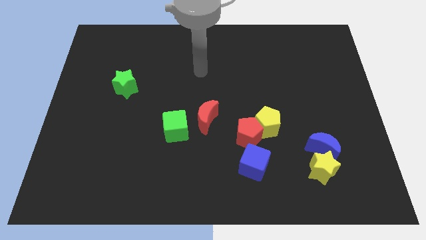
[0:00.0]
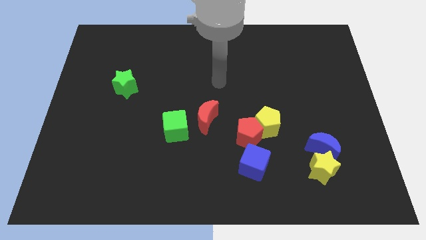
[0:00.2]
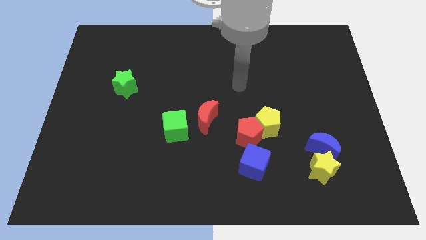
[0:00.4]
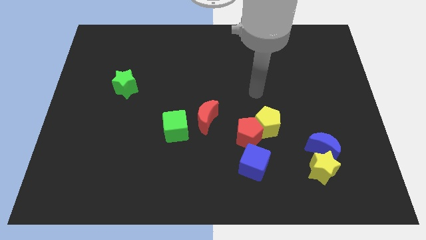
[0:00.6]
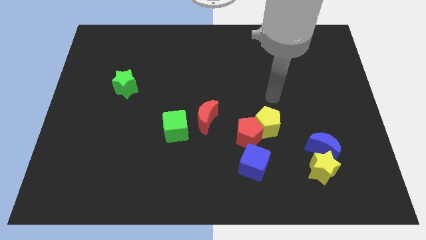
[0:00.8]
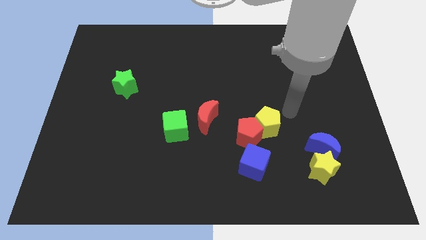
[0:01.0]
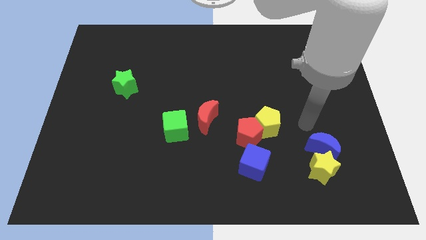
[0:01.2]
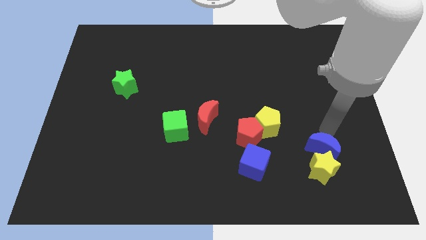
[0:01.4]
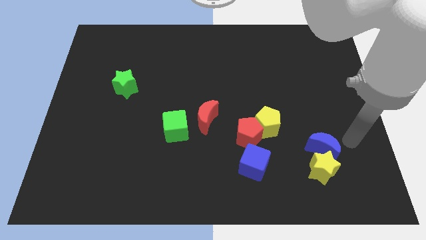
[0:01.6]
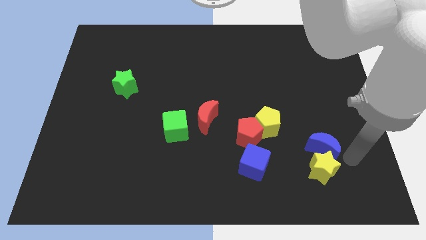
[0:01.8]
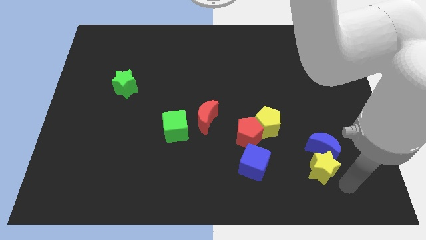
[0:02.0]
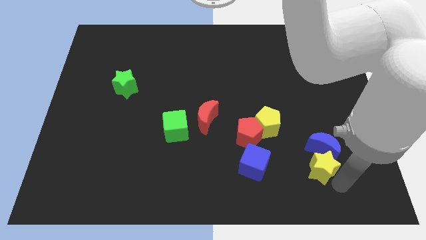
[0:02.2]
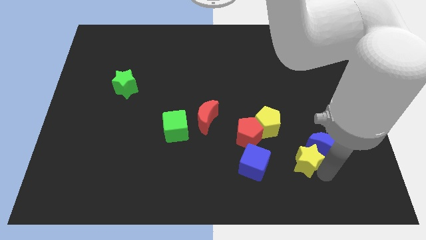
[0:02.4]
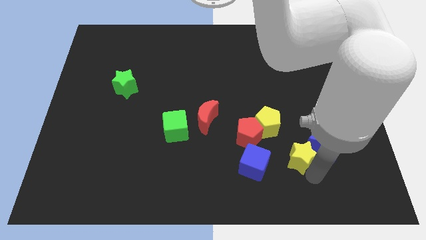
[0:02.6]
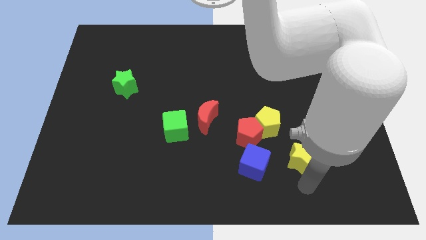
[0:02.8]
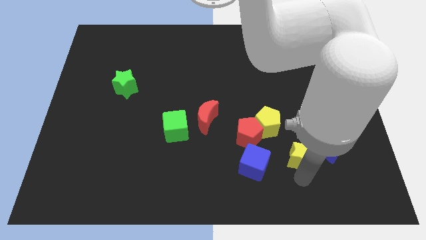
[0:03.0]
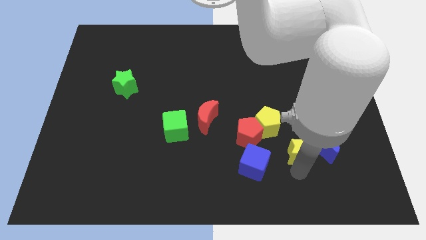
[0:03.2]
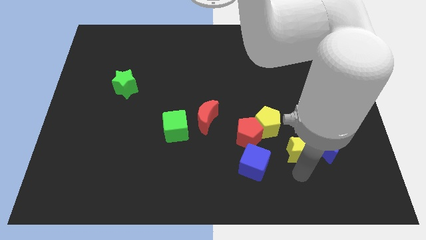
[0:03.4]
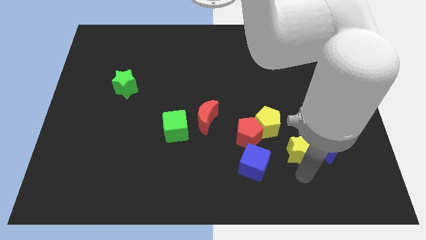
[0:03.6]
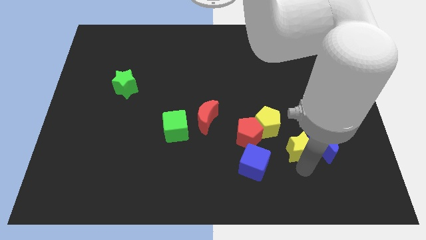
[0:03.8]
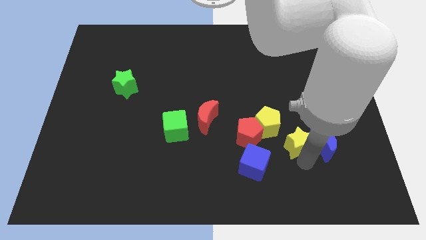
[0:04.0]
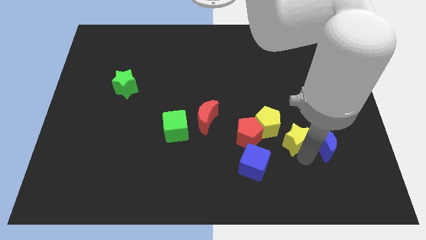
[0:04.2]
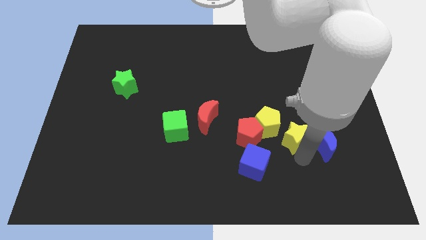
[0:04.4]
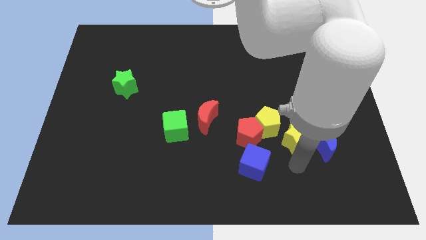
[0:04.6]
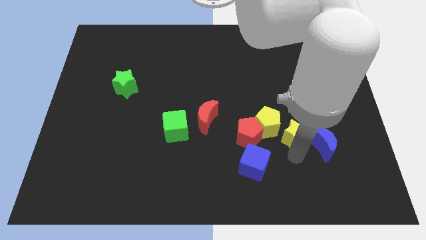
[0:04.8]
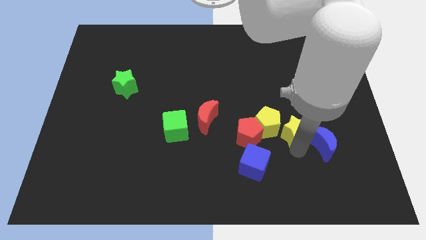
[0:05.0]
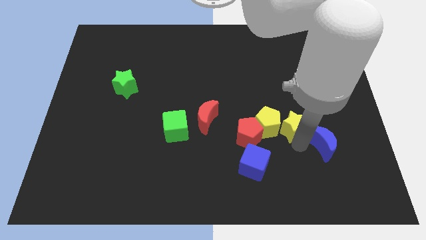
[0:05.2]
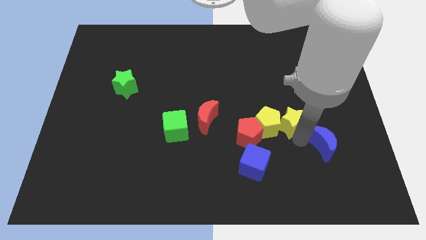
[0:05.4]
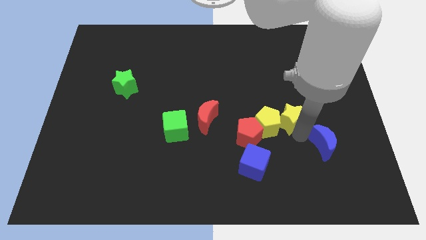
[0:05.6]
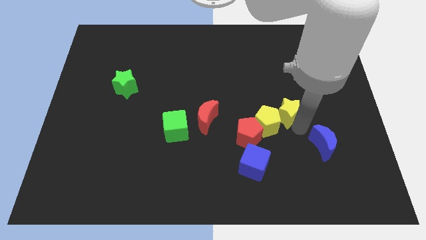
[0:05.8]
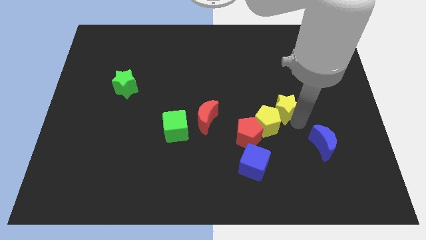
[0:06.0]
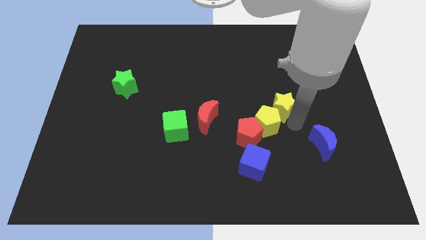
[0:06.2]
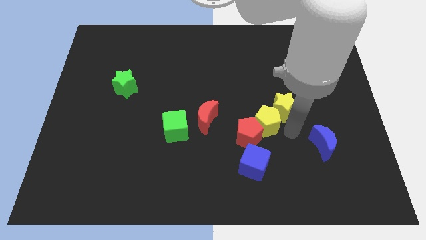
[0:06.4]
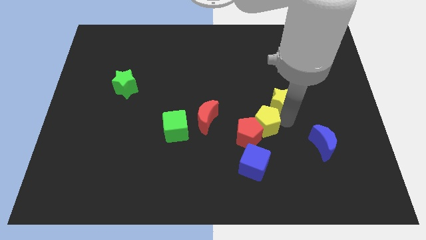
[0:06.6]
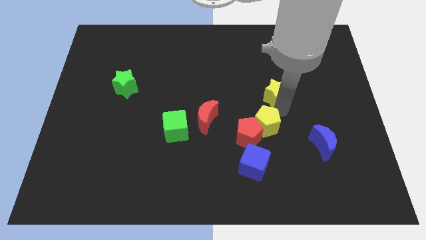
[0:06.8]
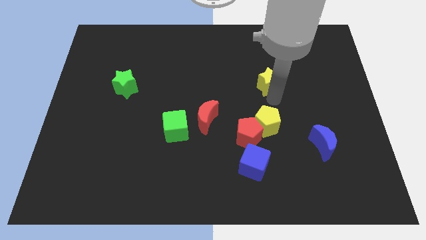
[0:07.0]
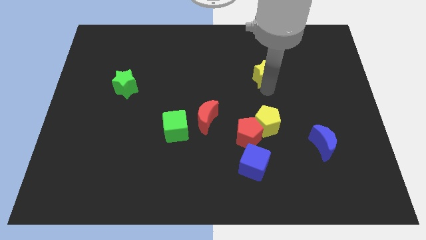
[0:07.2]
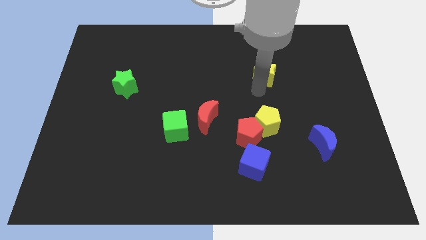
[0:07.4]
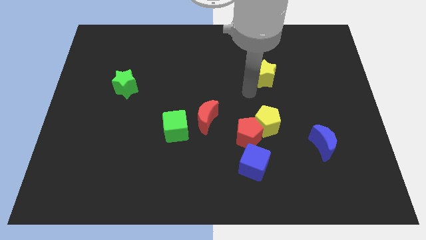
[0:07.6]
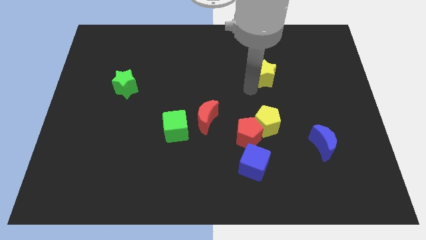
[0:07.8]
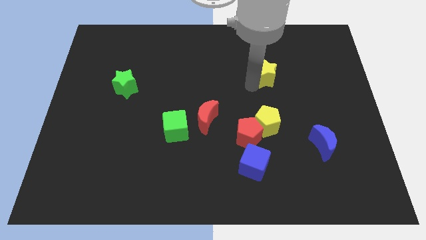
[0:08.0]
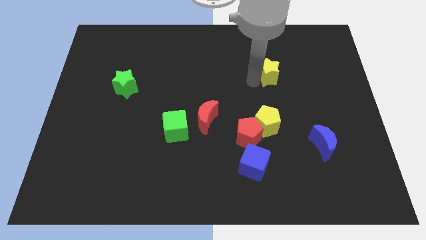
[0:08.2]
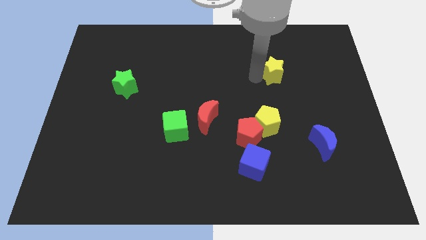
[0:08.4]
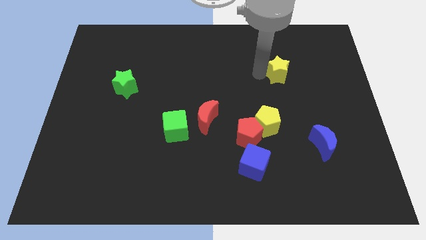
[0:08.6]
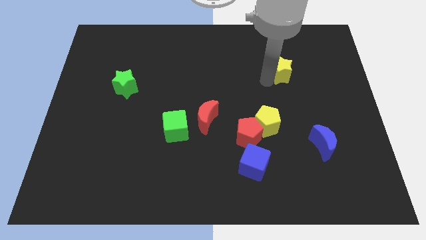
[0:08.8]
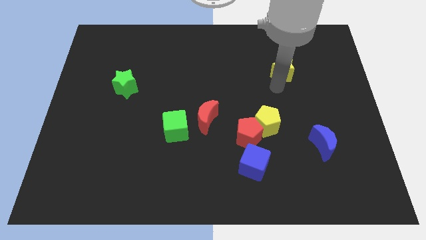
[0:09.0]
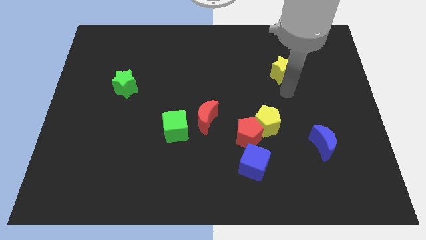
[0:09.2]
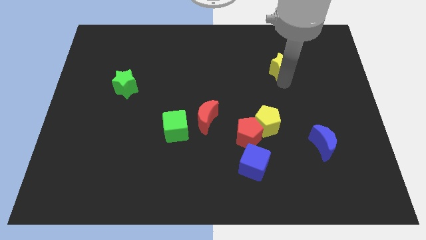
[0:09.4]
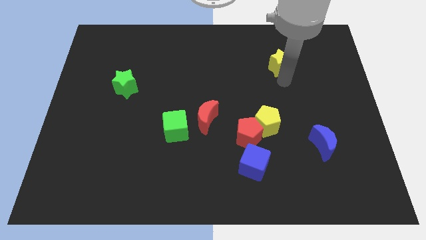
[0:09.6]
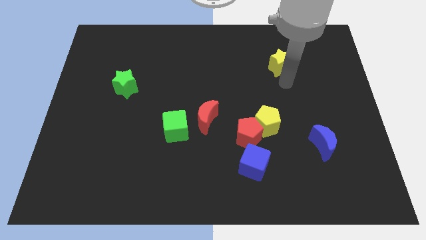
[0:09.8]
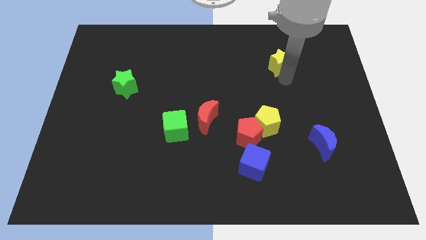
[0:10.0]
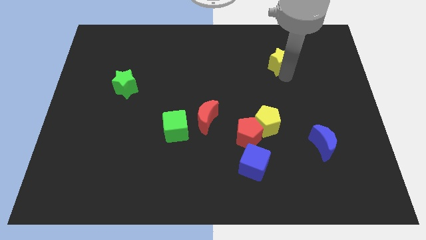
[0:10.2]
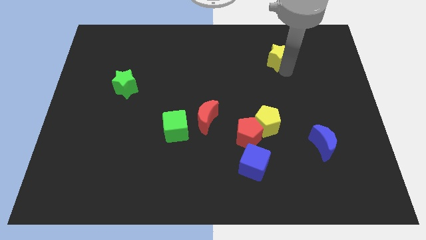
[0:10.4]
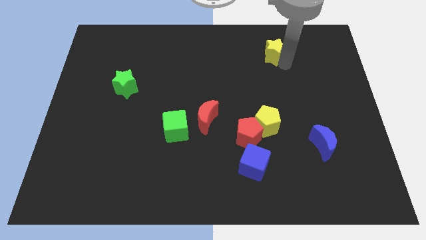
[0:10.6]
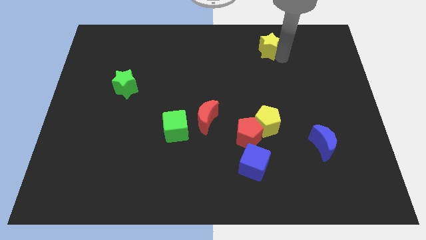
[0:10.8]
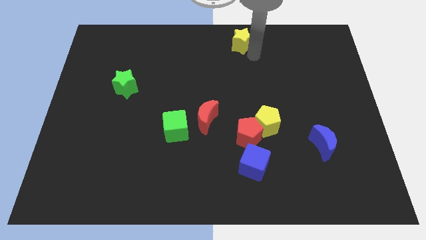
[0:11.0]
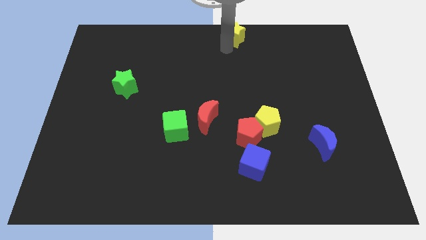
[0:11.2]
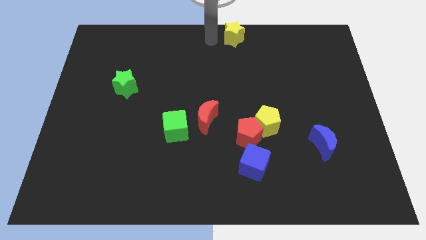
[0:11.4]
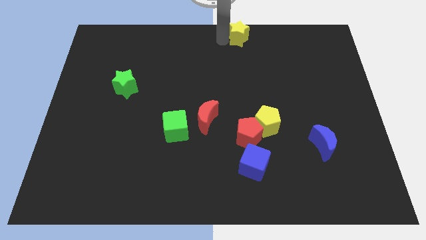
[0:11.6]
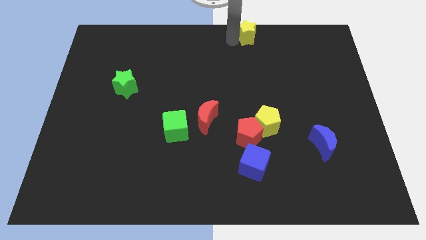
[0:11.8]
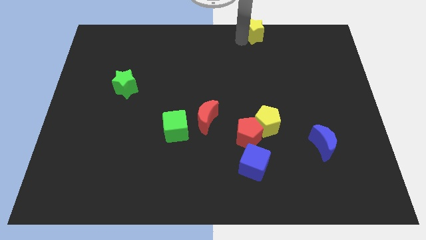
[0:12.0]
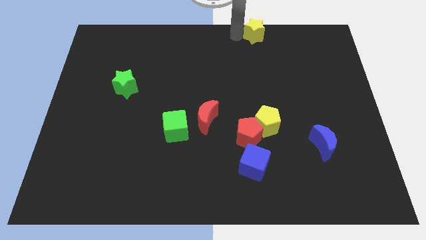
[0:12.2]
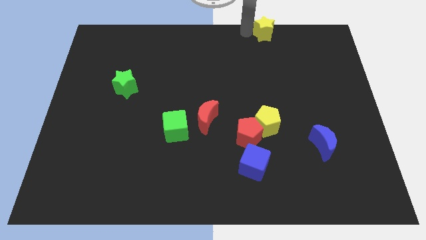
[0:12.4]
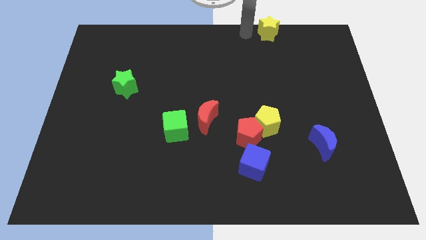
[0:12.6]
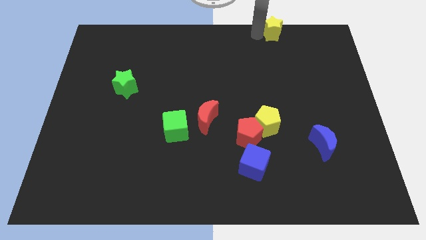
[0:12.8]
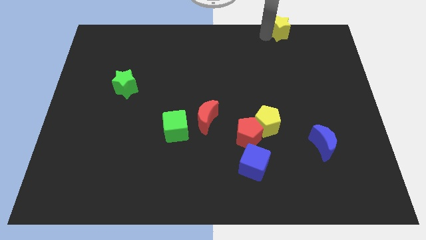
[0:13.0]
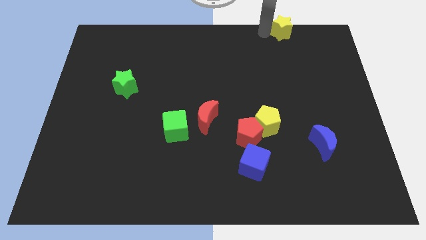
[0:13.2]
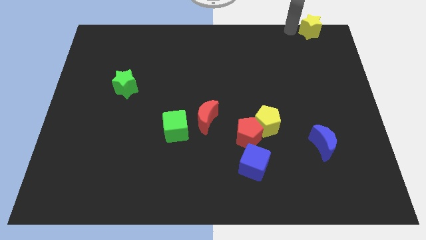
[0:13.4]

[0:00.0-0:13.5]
slide the yellow star to the upper right corner
